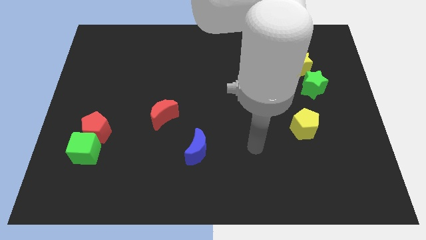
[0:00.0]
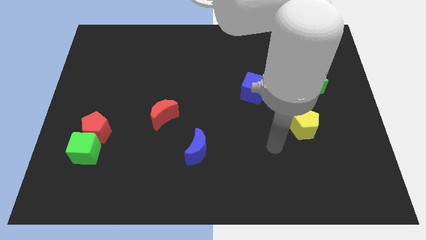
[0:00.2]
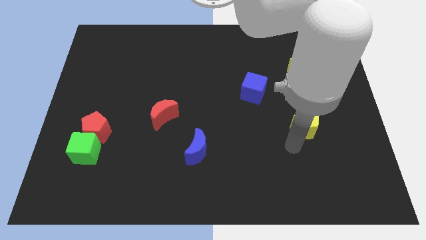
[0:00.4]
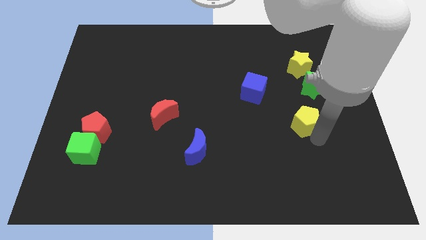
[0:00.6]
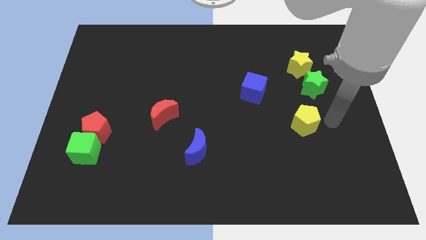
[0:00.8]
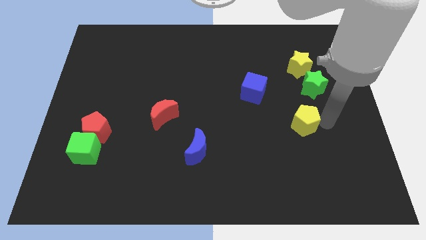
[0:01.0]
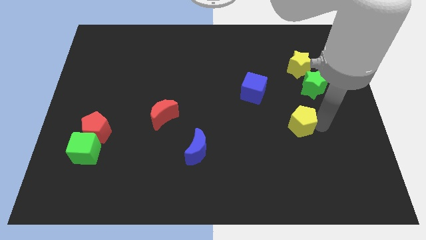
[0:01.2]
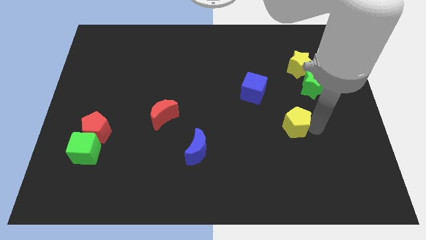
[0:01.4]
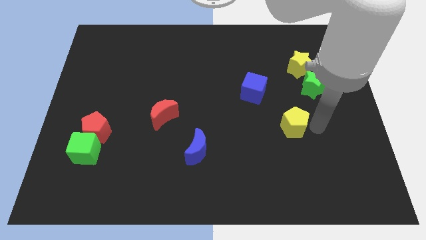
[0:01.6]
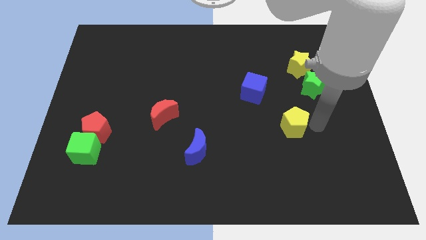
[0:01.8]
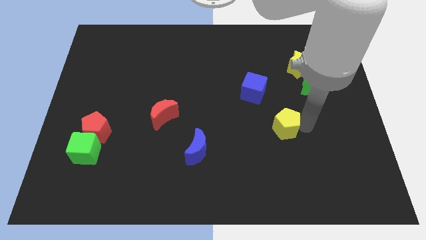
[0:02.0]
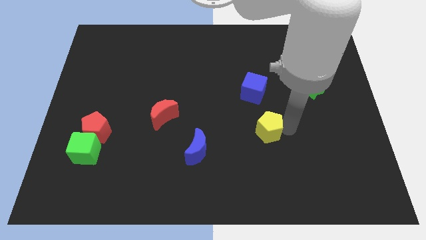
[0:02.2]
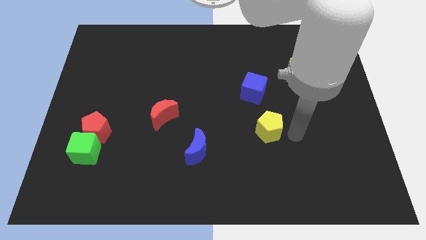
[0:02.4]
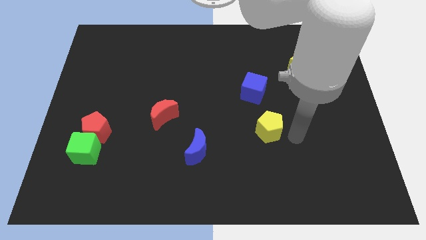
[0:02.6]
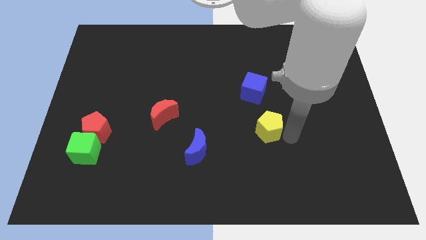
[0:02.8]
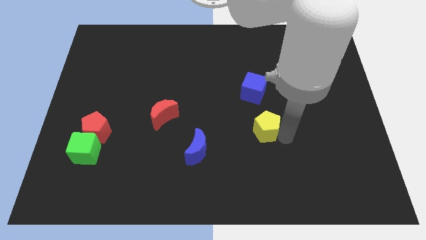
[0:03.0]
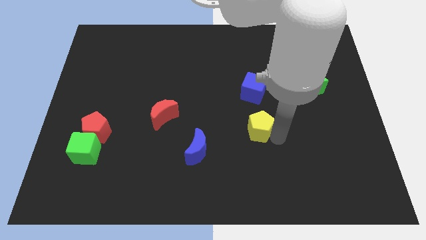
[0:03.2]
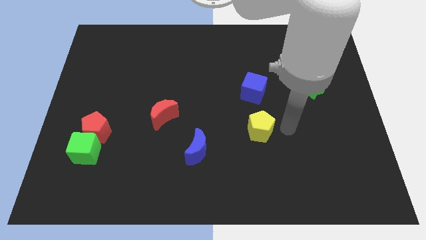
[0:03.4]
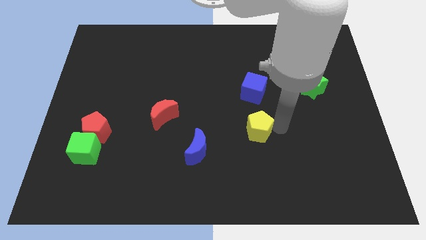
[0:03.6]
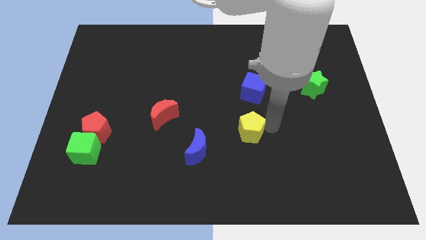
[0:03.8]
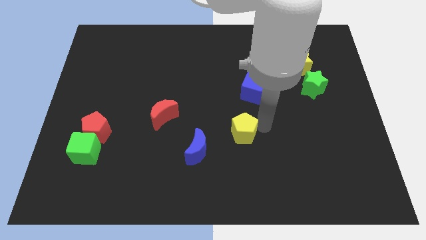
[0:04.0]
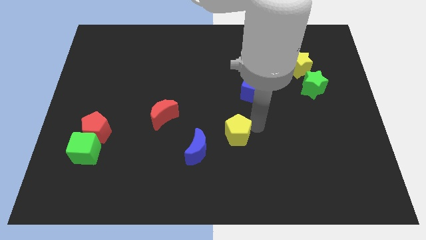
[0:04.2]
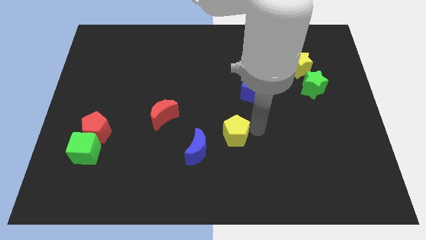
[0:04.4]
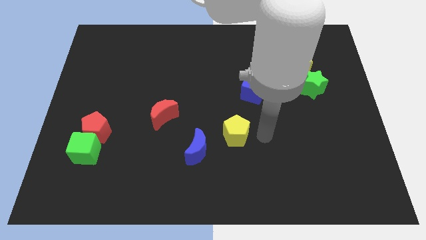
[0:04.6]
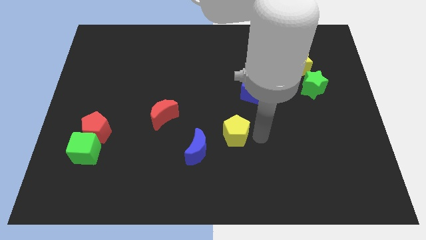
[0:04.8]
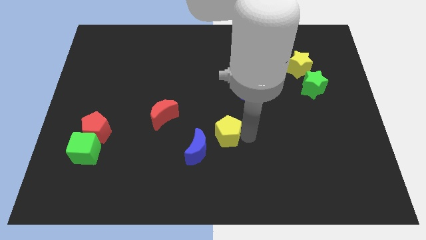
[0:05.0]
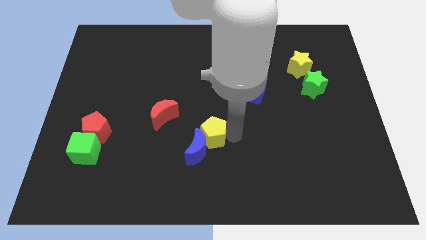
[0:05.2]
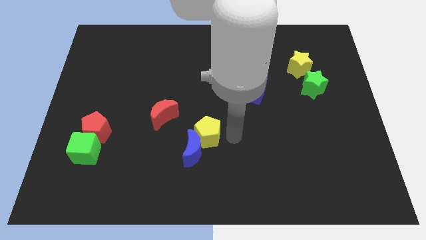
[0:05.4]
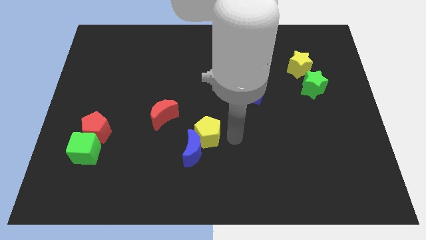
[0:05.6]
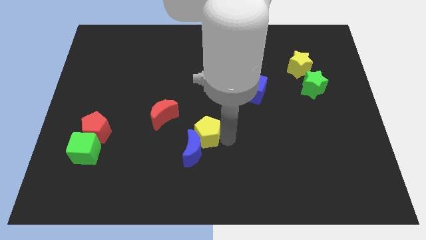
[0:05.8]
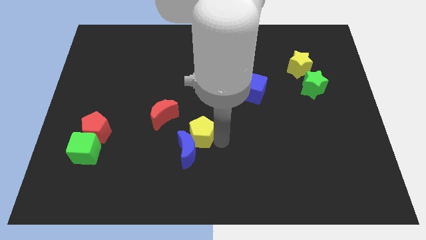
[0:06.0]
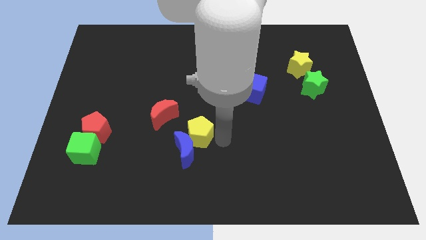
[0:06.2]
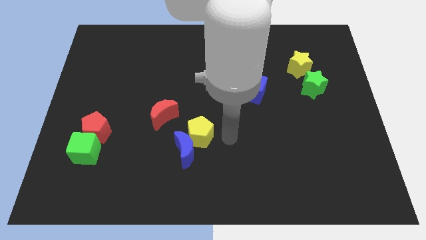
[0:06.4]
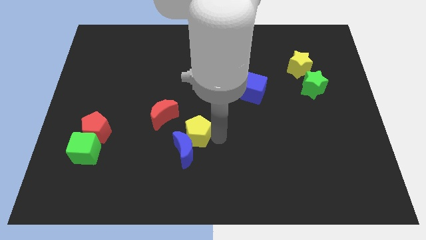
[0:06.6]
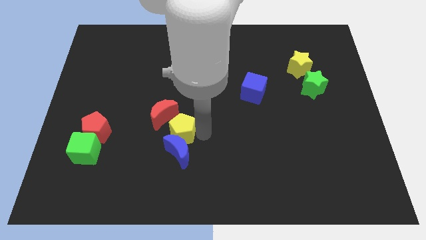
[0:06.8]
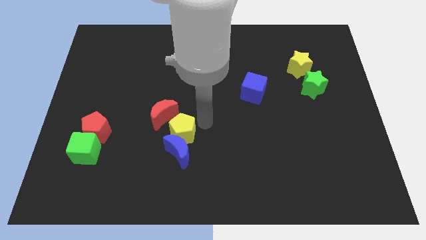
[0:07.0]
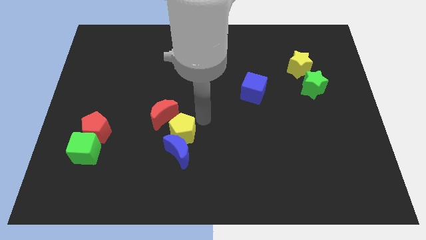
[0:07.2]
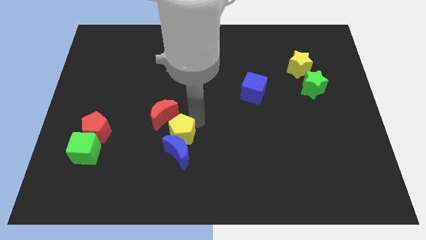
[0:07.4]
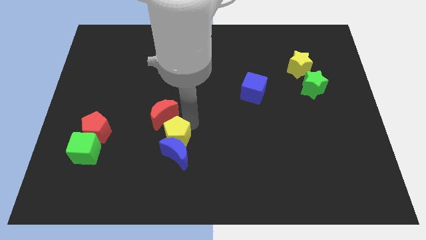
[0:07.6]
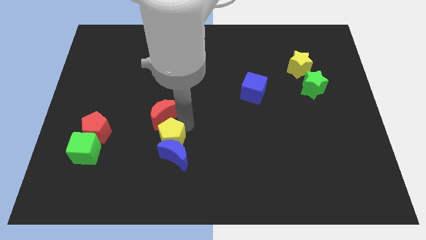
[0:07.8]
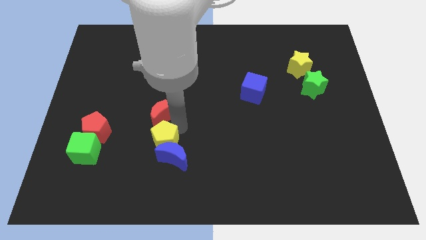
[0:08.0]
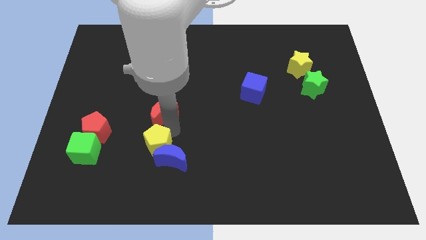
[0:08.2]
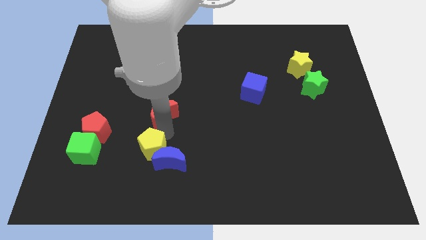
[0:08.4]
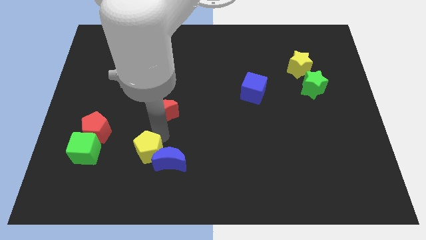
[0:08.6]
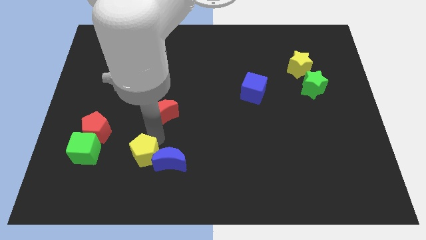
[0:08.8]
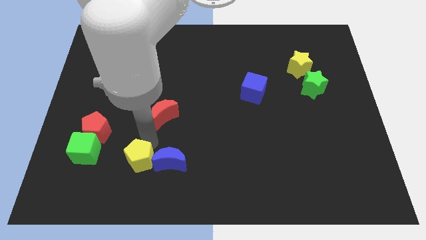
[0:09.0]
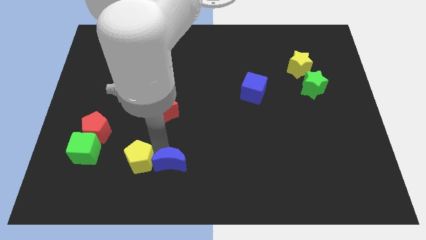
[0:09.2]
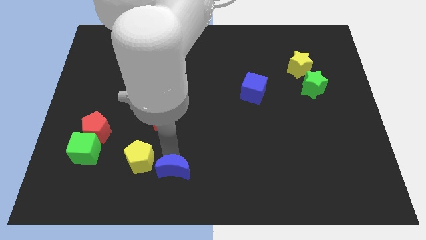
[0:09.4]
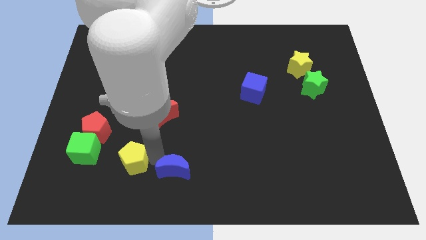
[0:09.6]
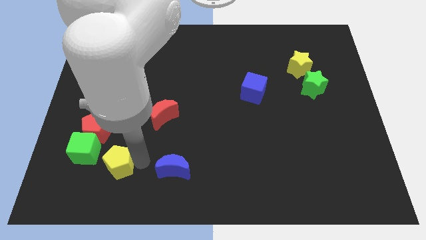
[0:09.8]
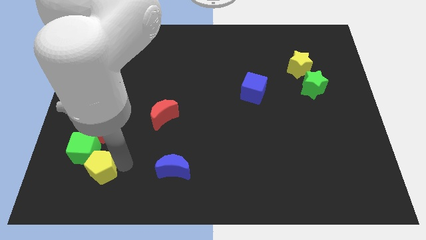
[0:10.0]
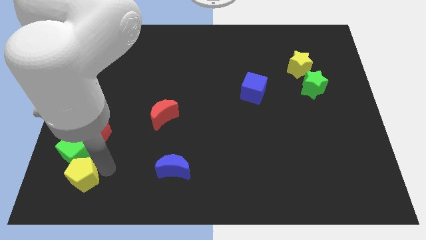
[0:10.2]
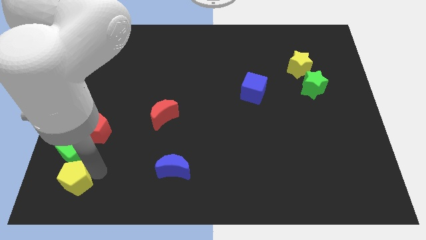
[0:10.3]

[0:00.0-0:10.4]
move the yellow pentagon to the lower left corner

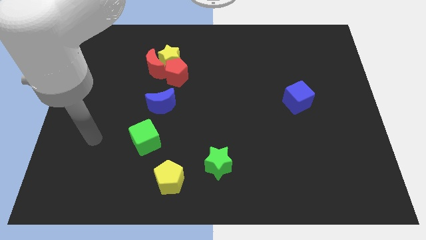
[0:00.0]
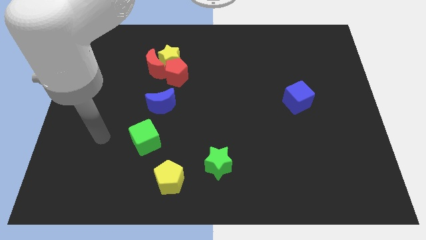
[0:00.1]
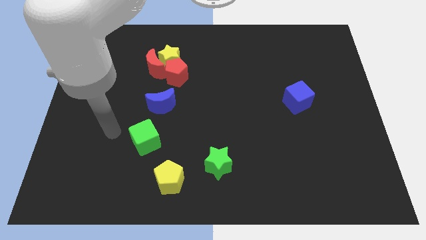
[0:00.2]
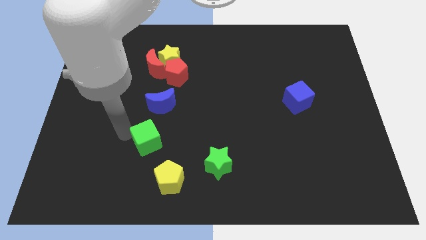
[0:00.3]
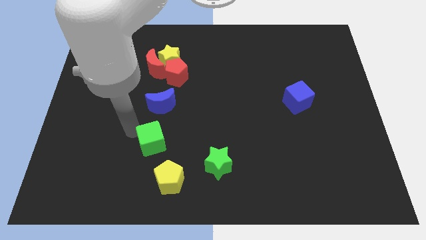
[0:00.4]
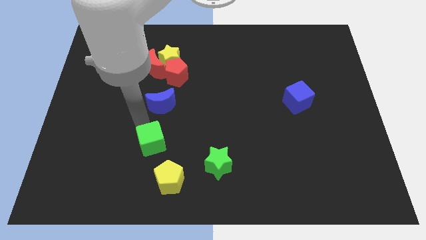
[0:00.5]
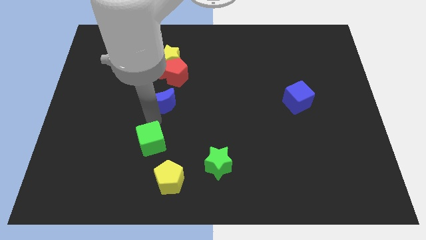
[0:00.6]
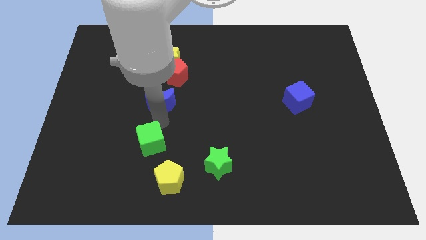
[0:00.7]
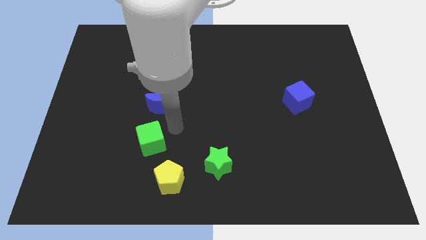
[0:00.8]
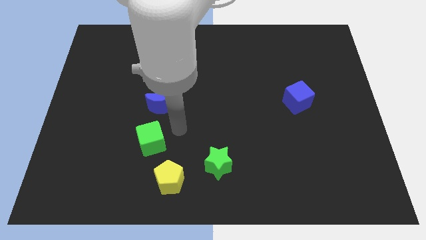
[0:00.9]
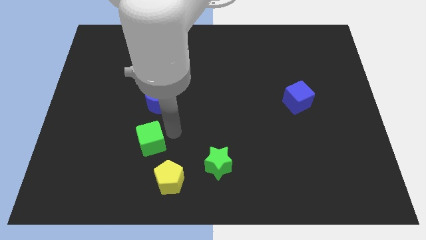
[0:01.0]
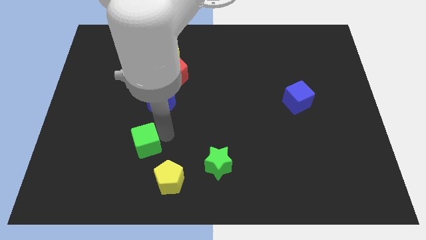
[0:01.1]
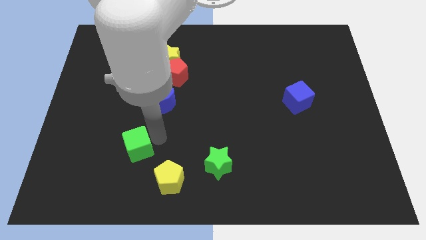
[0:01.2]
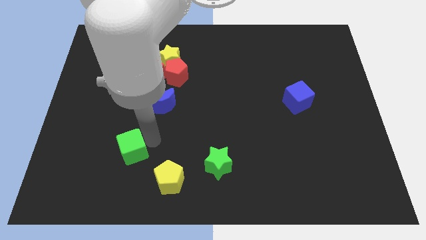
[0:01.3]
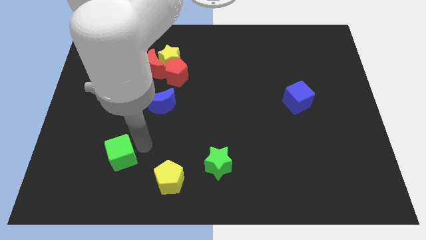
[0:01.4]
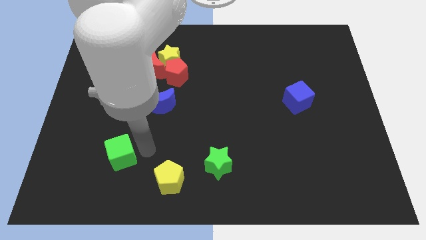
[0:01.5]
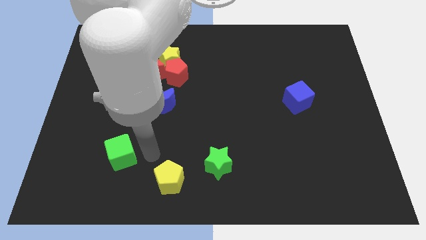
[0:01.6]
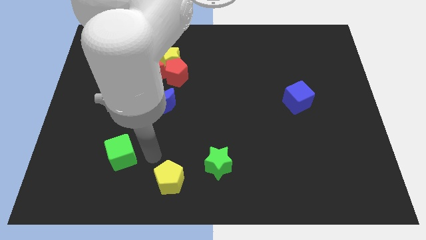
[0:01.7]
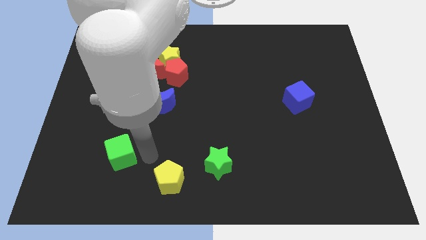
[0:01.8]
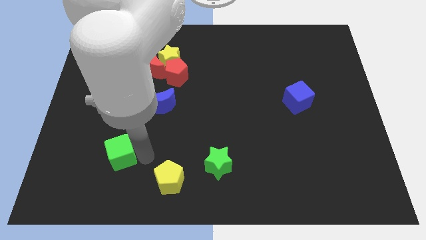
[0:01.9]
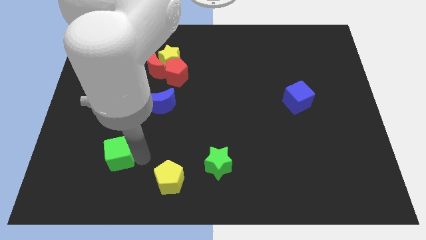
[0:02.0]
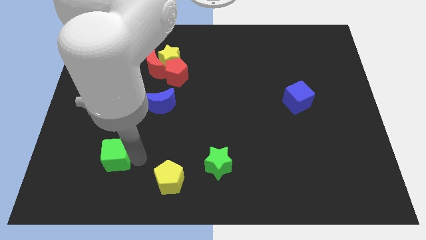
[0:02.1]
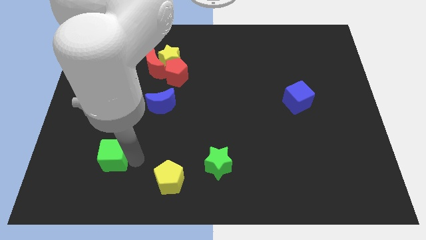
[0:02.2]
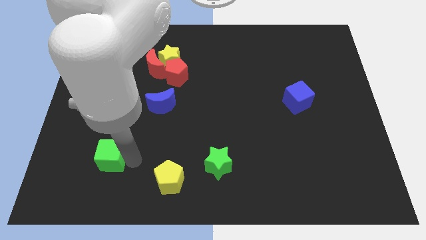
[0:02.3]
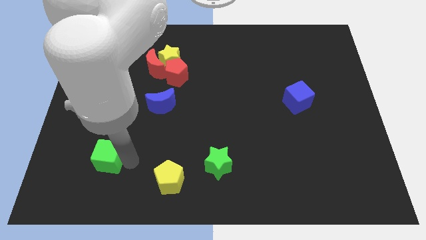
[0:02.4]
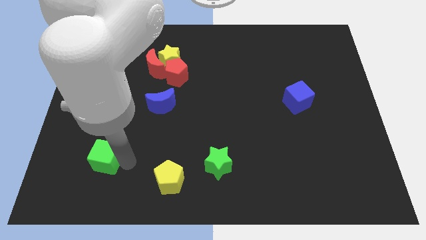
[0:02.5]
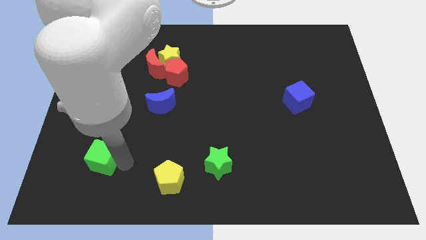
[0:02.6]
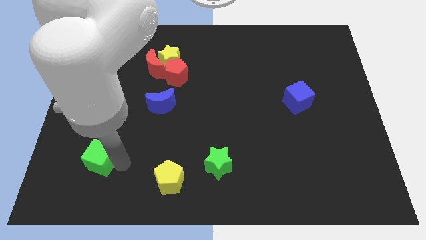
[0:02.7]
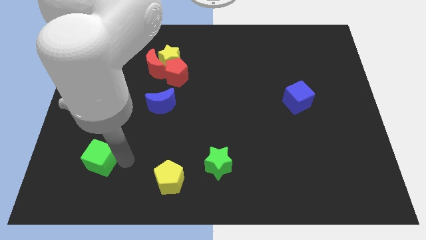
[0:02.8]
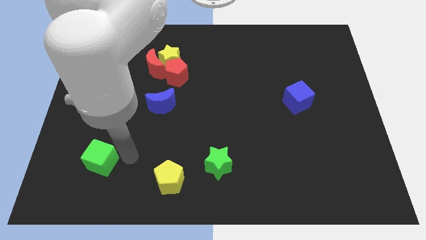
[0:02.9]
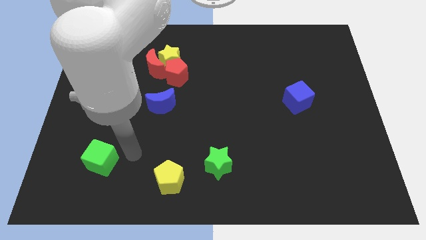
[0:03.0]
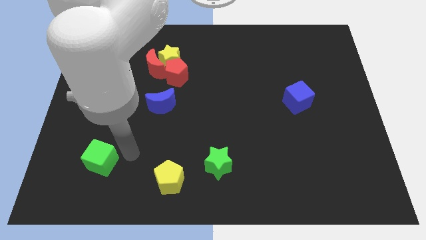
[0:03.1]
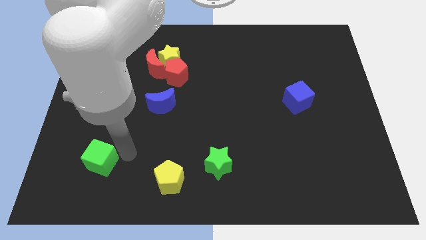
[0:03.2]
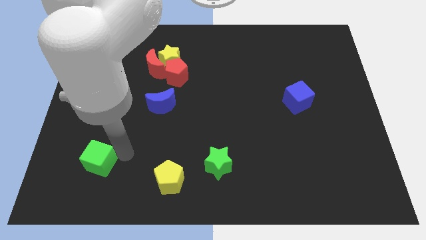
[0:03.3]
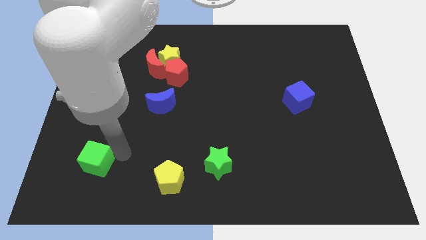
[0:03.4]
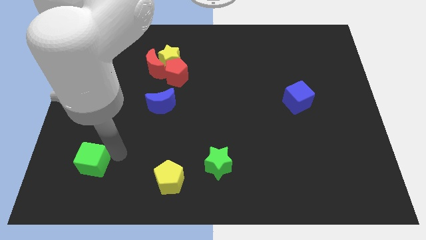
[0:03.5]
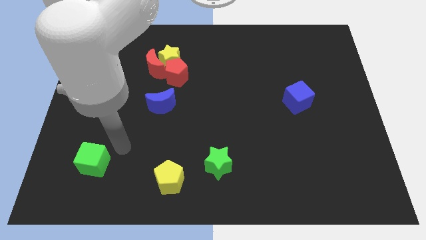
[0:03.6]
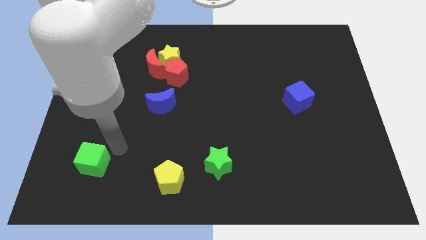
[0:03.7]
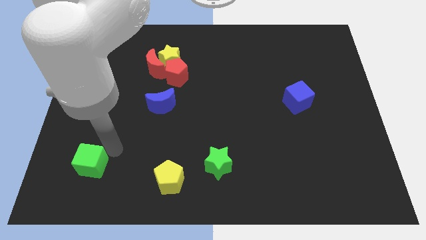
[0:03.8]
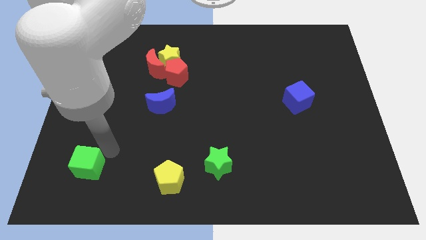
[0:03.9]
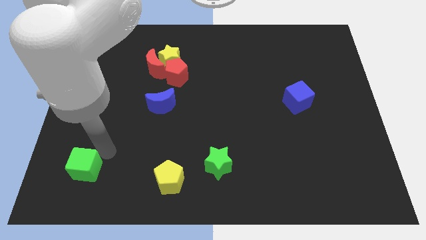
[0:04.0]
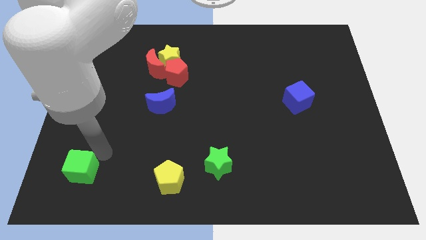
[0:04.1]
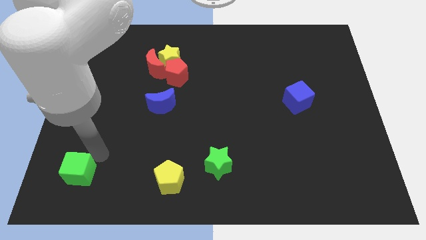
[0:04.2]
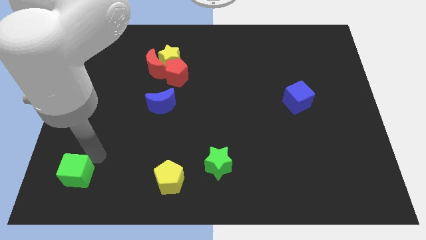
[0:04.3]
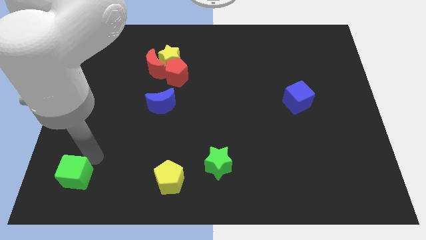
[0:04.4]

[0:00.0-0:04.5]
move the green cube to the bottom left corner
